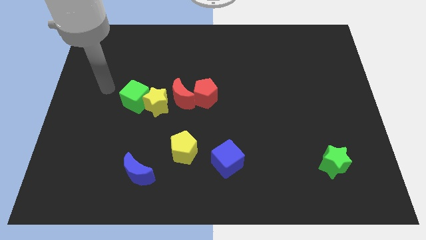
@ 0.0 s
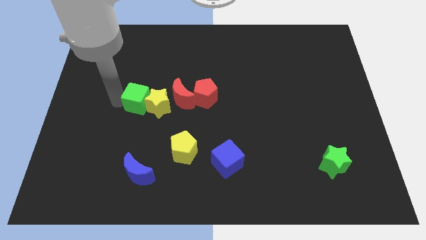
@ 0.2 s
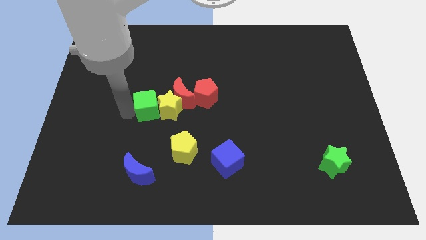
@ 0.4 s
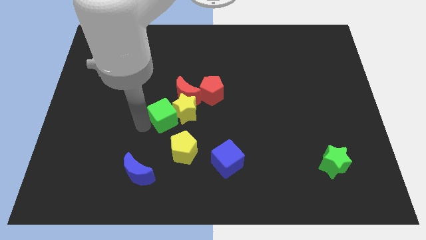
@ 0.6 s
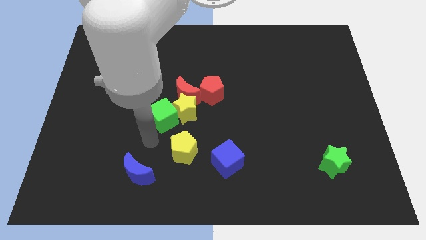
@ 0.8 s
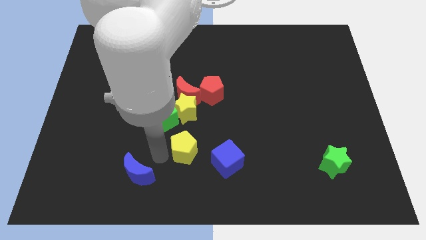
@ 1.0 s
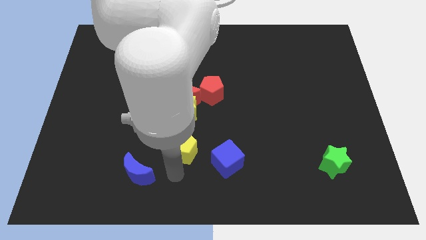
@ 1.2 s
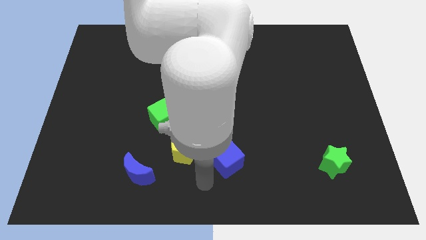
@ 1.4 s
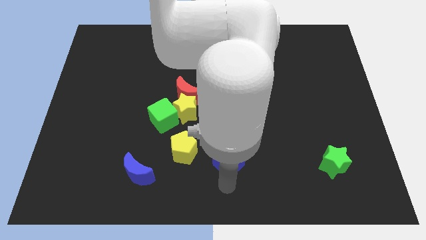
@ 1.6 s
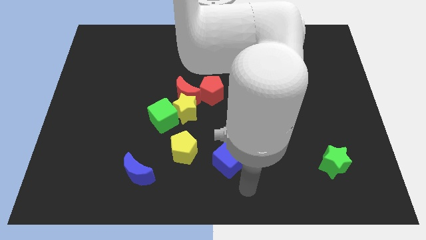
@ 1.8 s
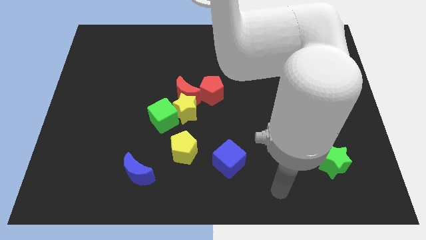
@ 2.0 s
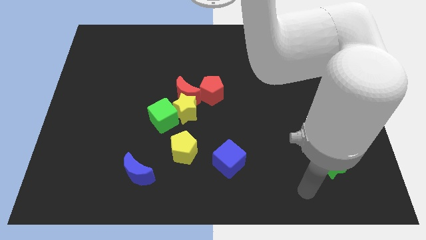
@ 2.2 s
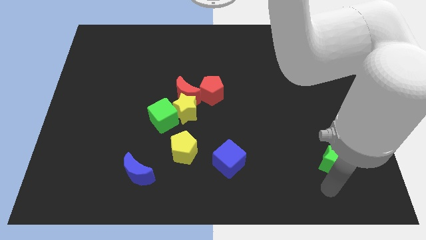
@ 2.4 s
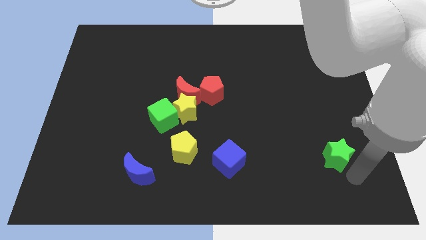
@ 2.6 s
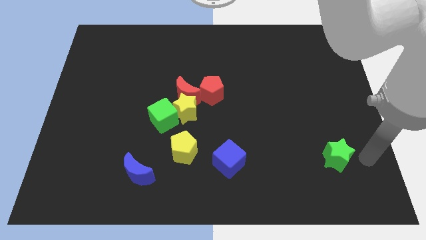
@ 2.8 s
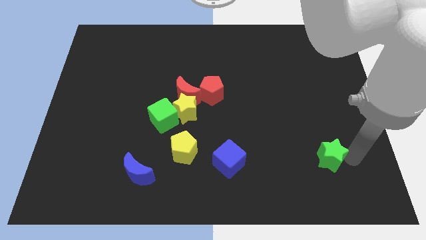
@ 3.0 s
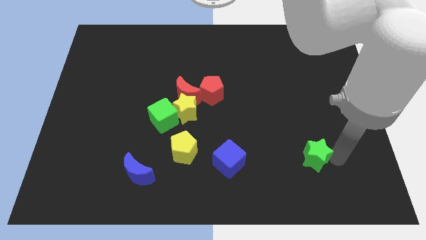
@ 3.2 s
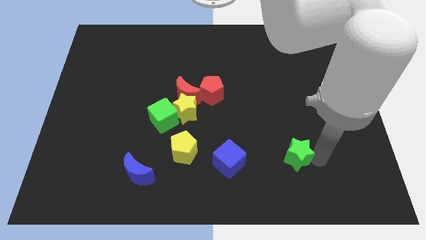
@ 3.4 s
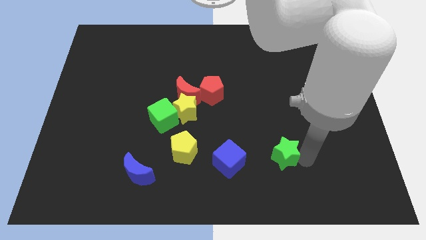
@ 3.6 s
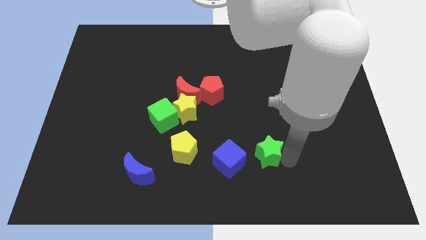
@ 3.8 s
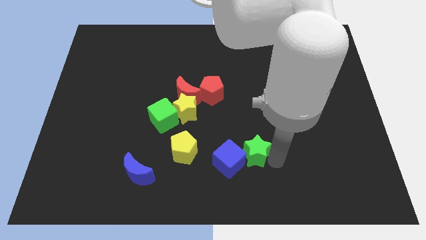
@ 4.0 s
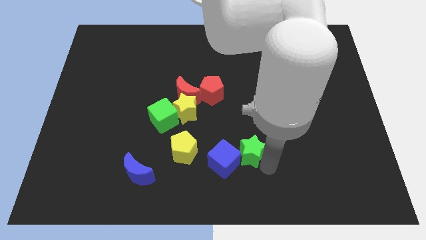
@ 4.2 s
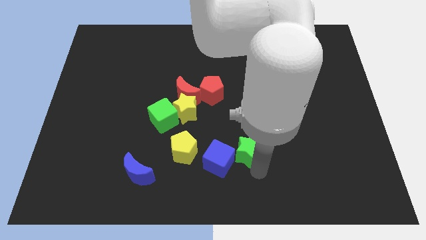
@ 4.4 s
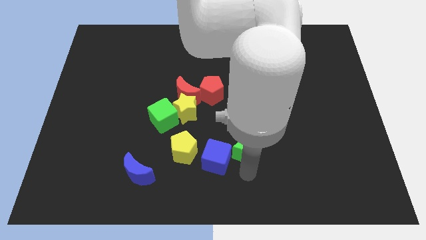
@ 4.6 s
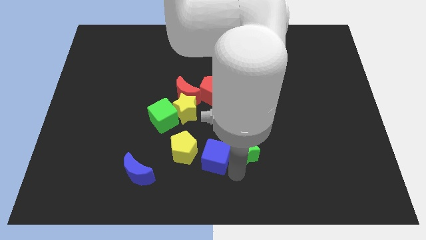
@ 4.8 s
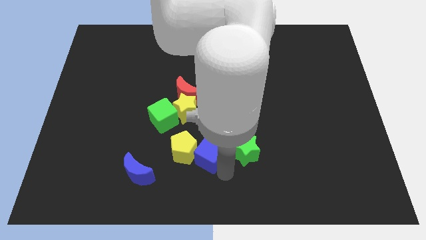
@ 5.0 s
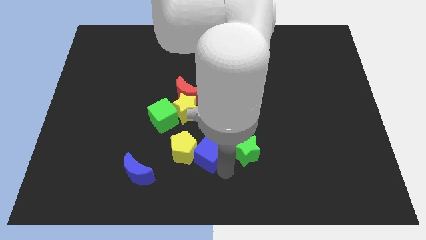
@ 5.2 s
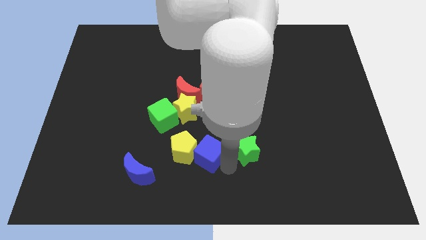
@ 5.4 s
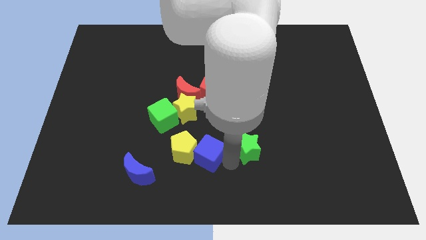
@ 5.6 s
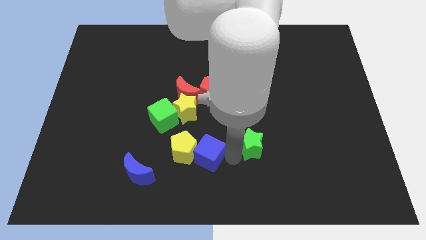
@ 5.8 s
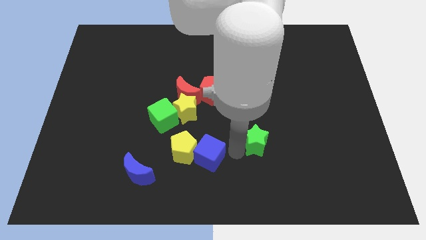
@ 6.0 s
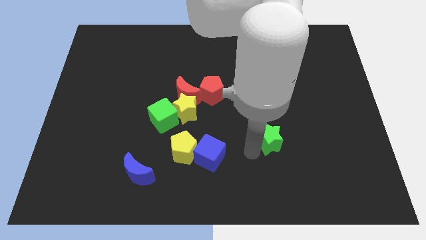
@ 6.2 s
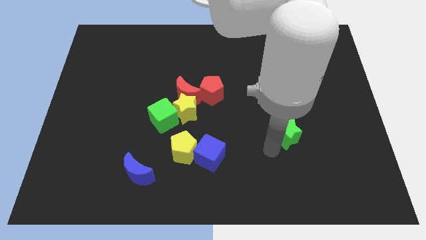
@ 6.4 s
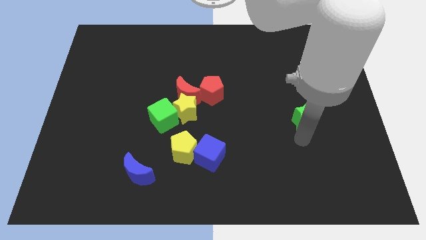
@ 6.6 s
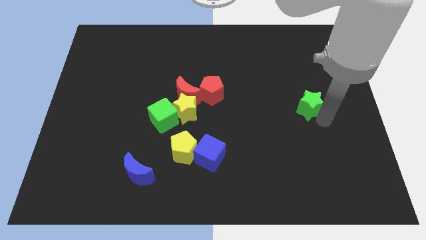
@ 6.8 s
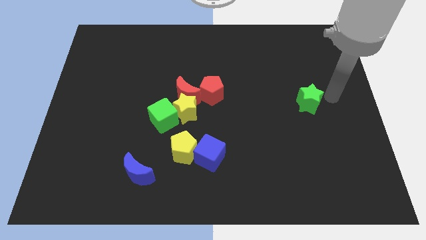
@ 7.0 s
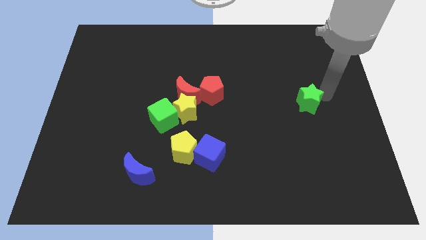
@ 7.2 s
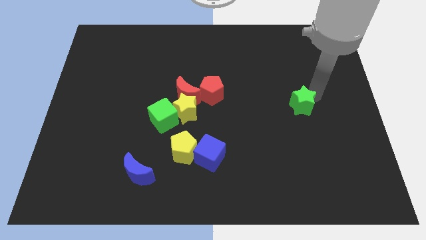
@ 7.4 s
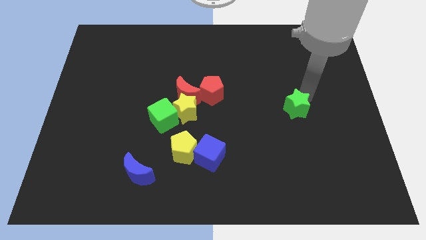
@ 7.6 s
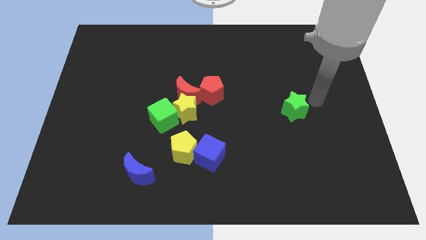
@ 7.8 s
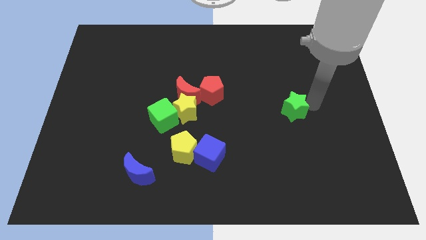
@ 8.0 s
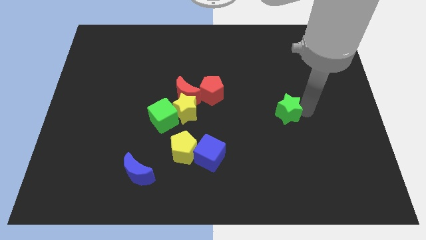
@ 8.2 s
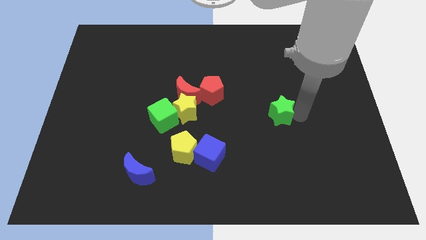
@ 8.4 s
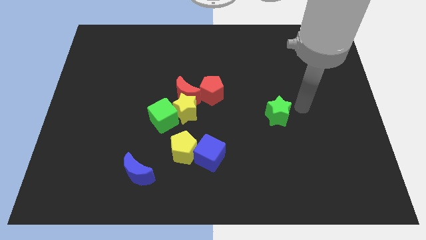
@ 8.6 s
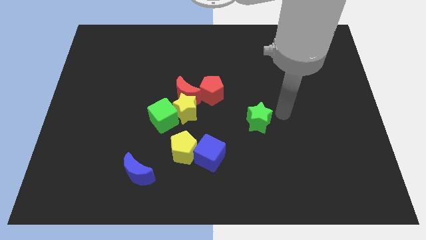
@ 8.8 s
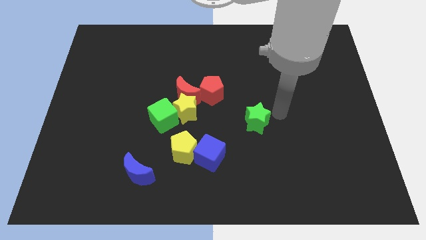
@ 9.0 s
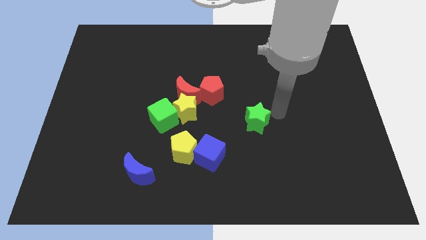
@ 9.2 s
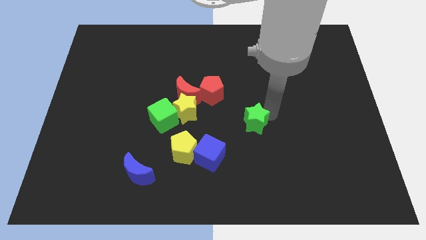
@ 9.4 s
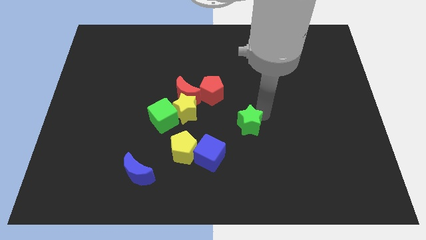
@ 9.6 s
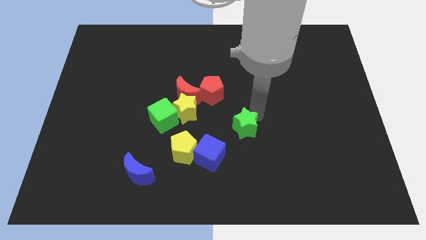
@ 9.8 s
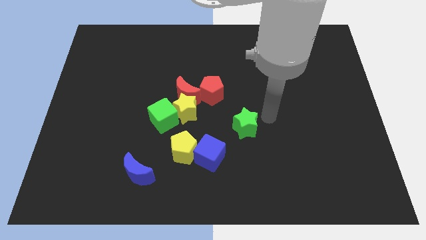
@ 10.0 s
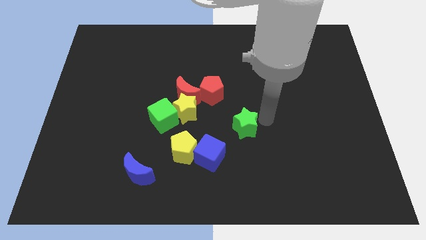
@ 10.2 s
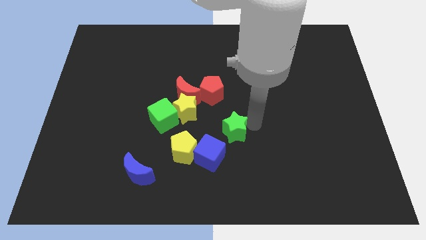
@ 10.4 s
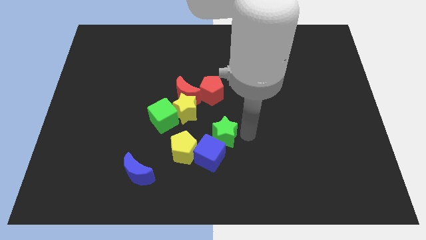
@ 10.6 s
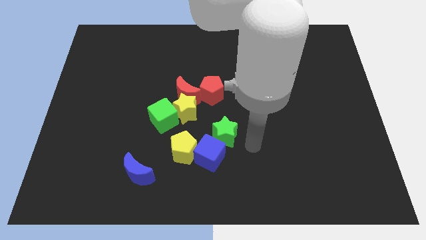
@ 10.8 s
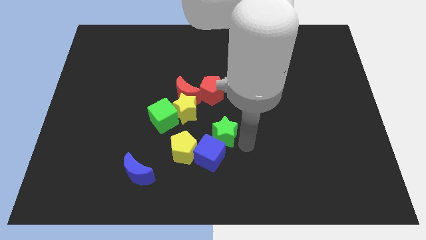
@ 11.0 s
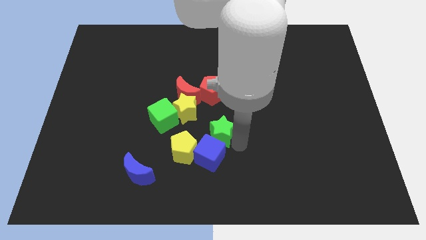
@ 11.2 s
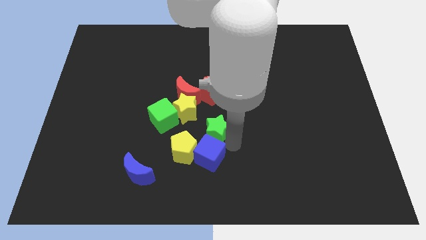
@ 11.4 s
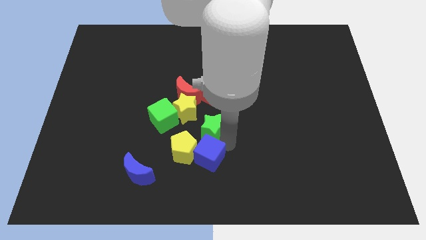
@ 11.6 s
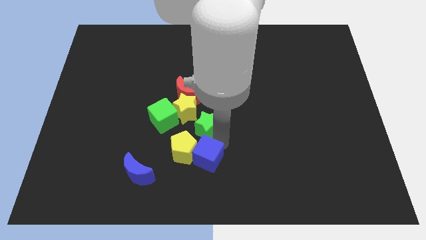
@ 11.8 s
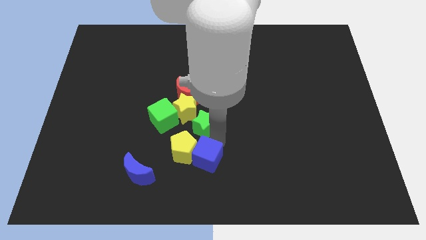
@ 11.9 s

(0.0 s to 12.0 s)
push the green star to the top of the yellow pentagon

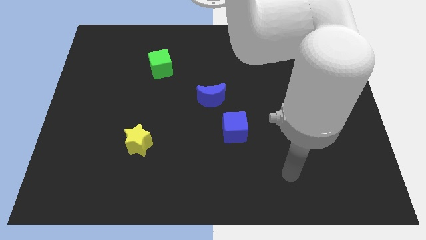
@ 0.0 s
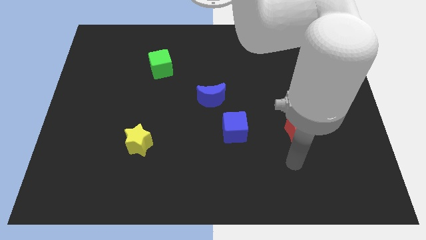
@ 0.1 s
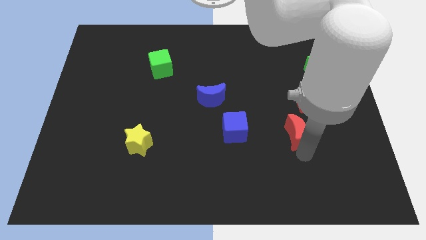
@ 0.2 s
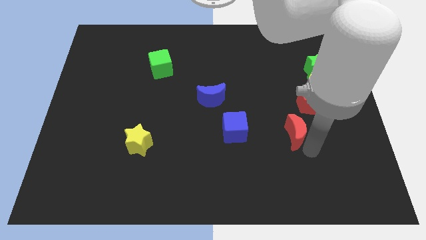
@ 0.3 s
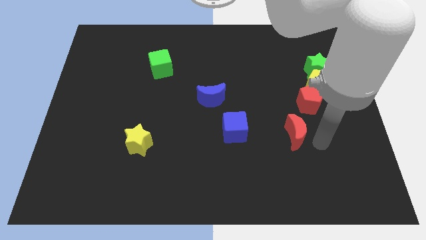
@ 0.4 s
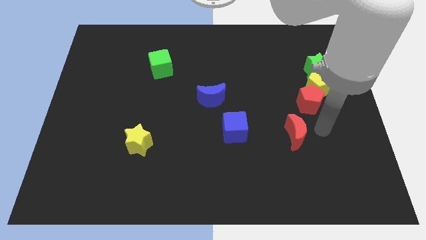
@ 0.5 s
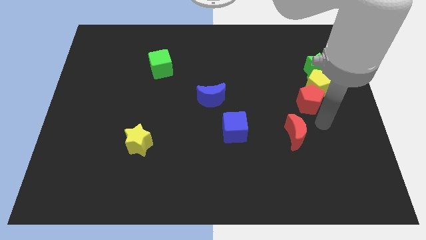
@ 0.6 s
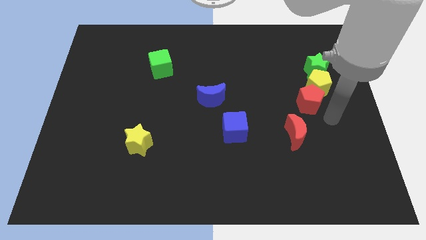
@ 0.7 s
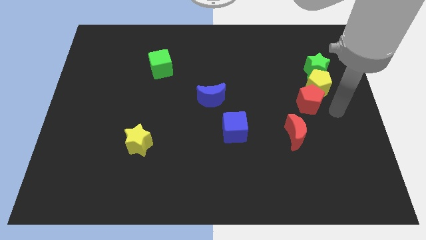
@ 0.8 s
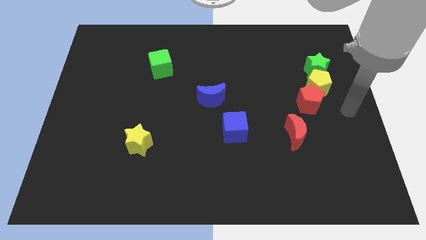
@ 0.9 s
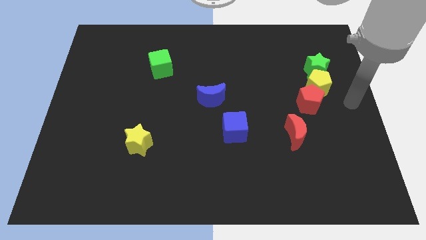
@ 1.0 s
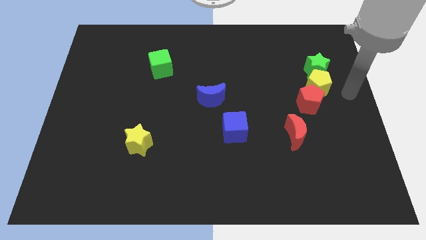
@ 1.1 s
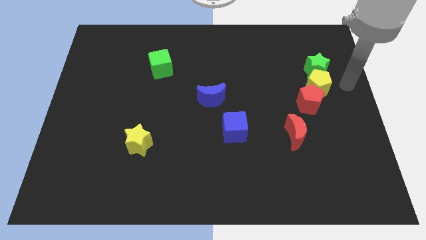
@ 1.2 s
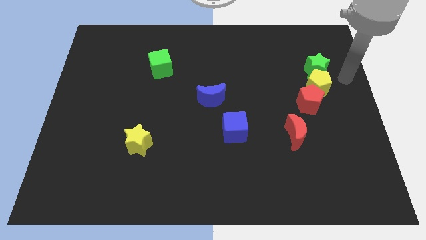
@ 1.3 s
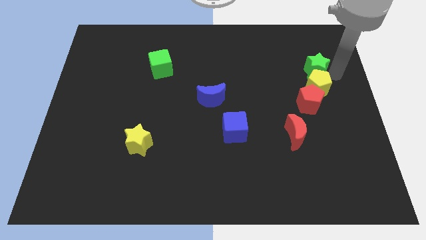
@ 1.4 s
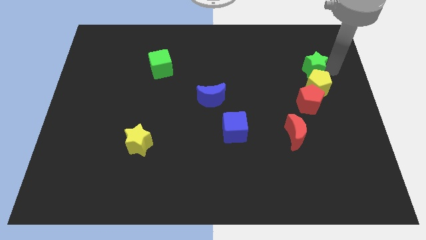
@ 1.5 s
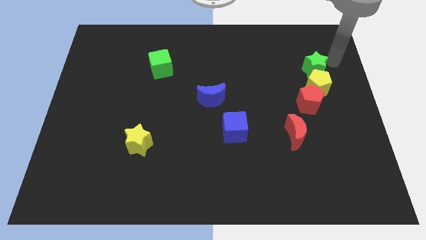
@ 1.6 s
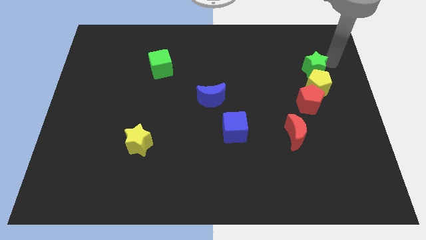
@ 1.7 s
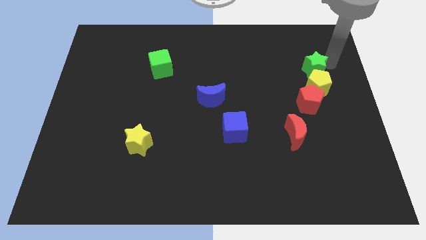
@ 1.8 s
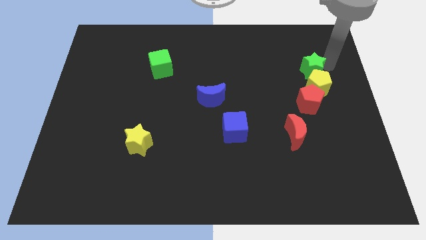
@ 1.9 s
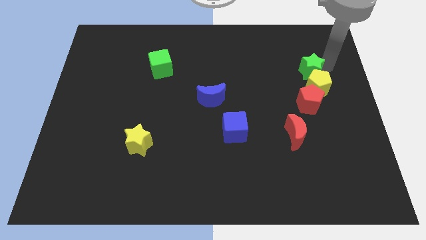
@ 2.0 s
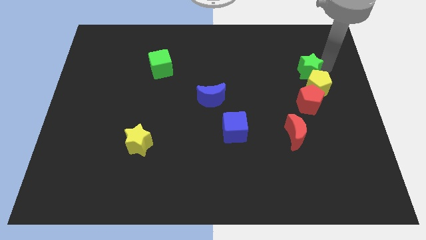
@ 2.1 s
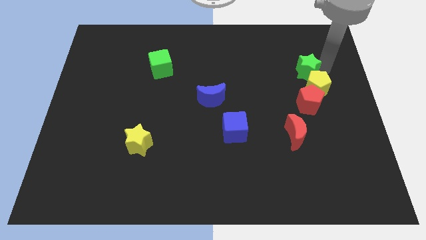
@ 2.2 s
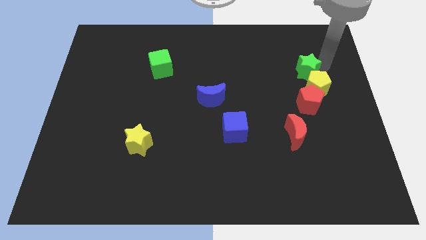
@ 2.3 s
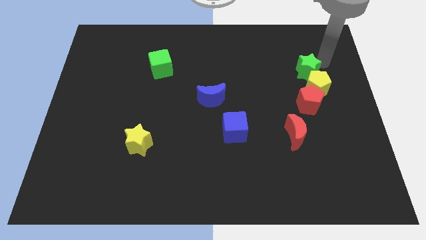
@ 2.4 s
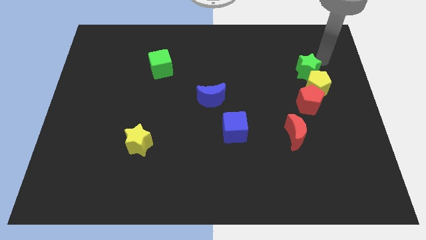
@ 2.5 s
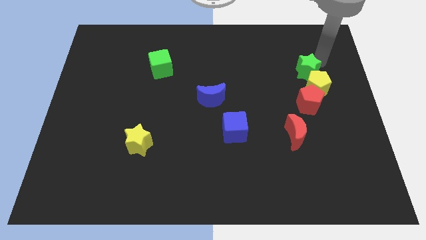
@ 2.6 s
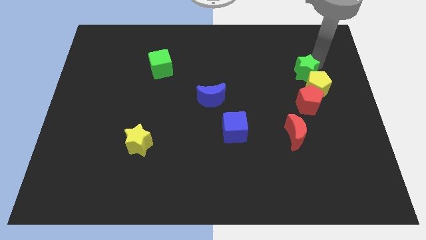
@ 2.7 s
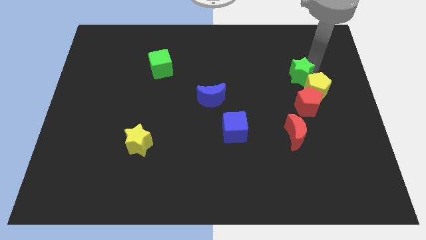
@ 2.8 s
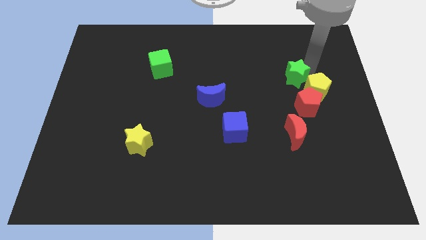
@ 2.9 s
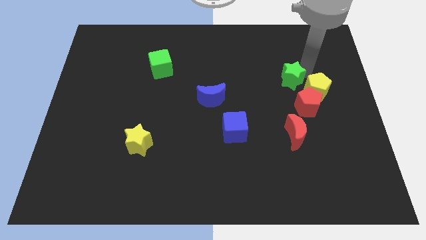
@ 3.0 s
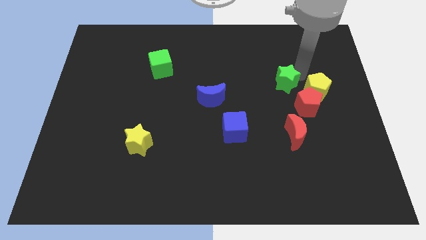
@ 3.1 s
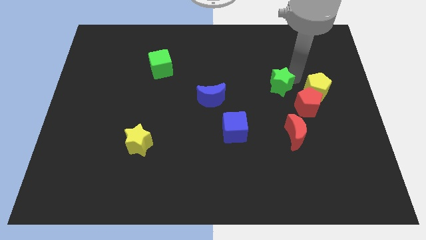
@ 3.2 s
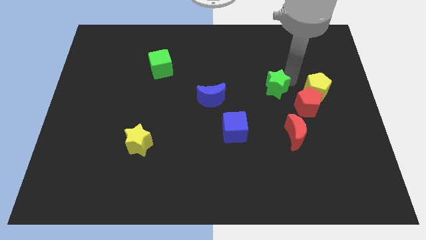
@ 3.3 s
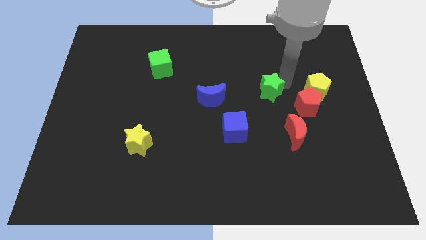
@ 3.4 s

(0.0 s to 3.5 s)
move the green star to the right side of the blue moon
